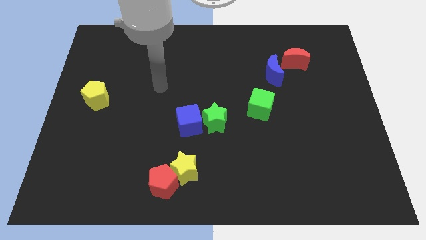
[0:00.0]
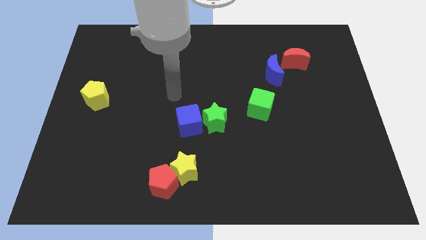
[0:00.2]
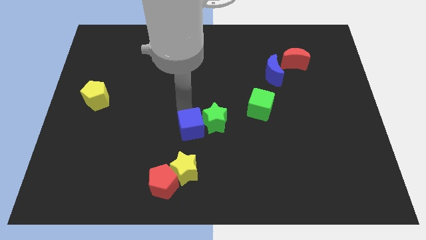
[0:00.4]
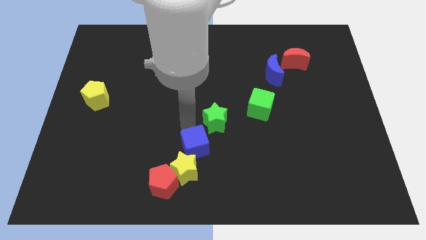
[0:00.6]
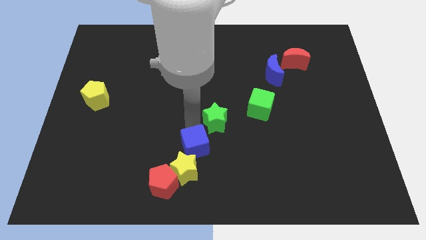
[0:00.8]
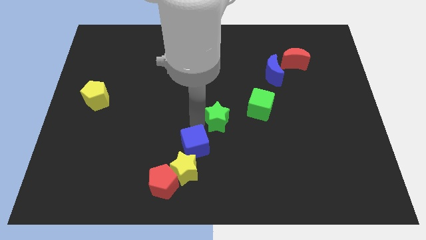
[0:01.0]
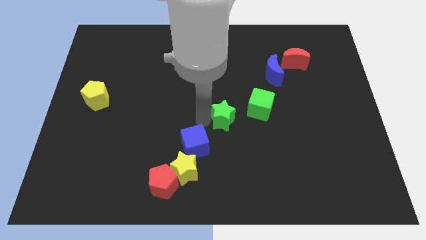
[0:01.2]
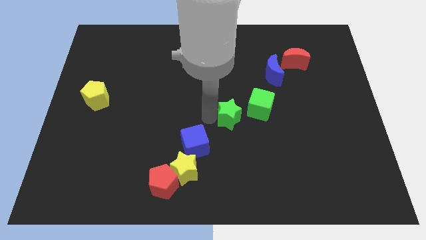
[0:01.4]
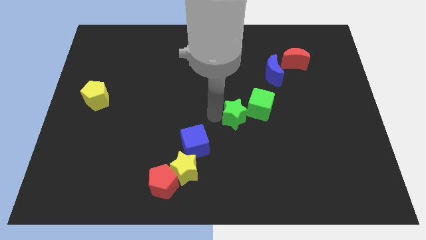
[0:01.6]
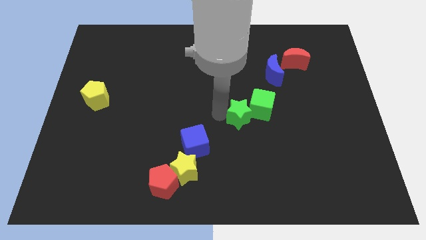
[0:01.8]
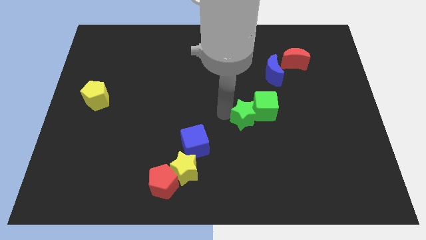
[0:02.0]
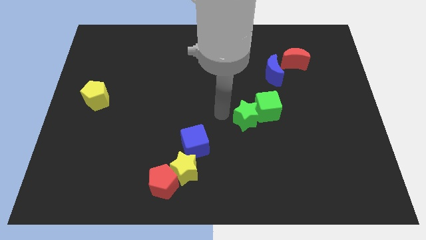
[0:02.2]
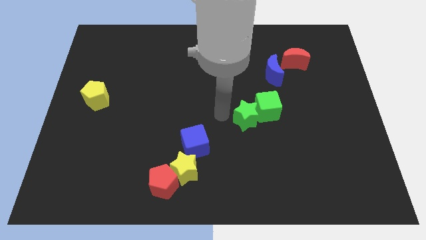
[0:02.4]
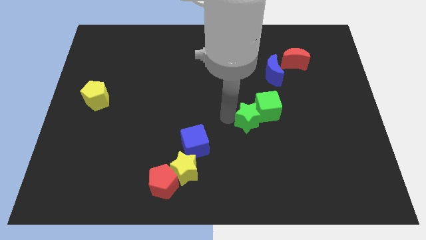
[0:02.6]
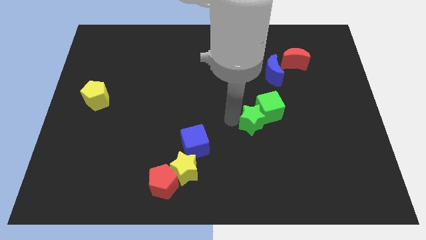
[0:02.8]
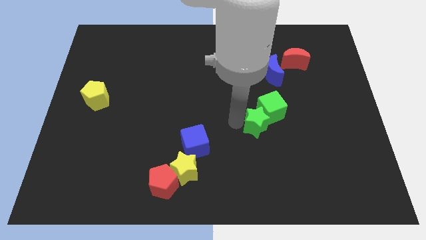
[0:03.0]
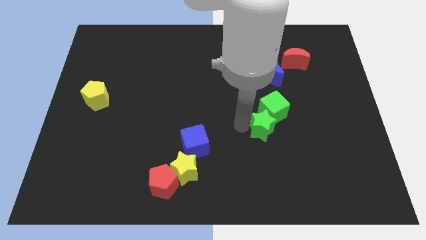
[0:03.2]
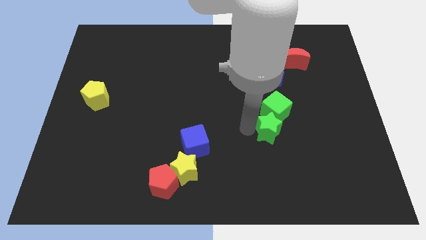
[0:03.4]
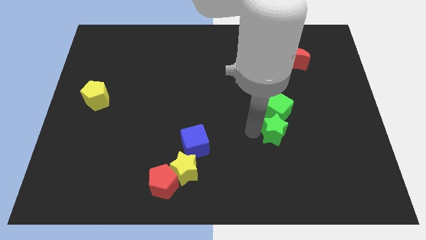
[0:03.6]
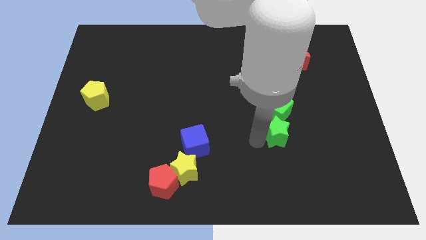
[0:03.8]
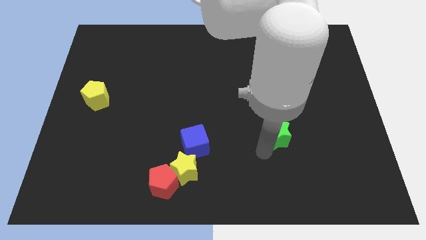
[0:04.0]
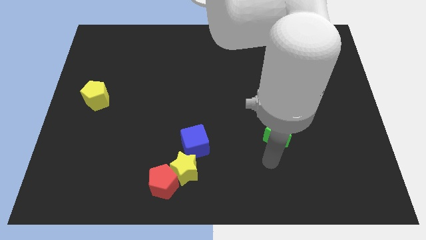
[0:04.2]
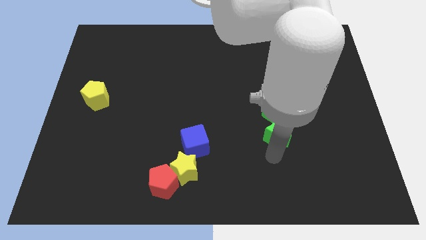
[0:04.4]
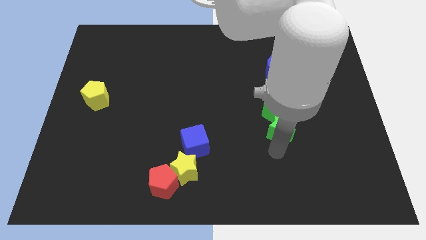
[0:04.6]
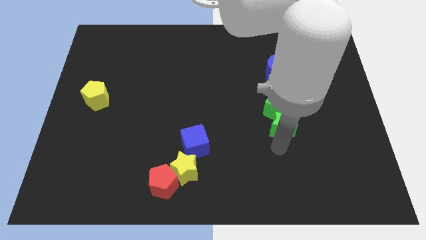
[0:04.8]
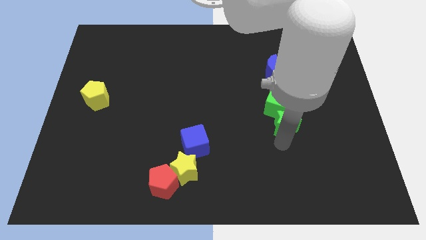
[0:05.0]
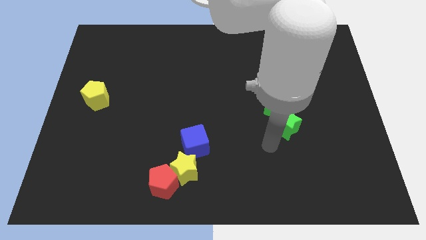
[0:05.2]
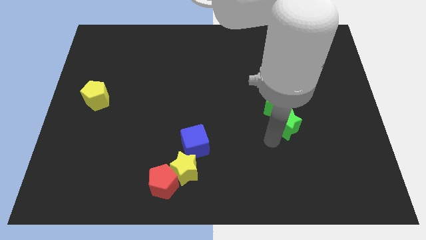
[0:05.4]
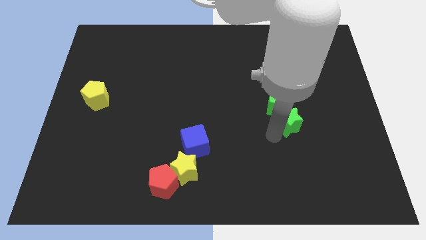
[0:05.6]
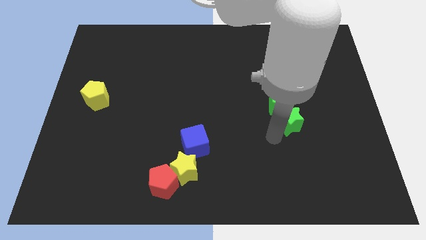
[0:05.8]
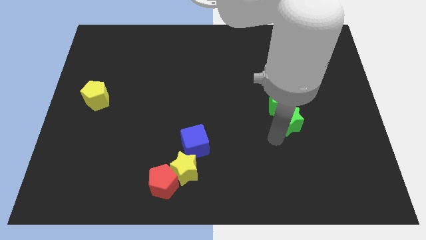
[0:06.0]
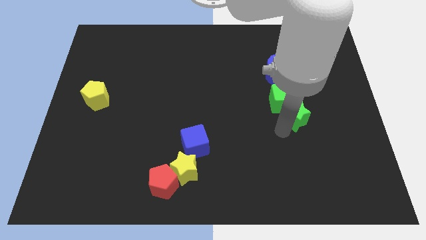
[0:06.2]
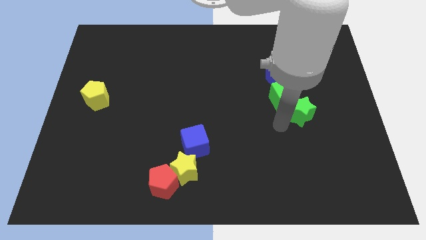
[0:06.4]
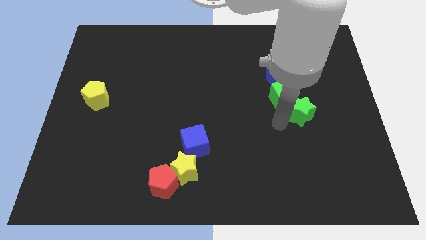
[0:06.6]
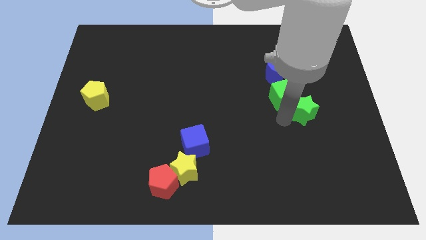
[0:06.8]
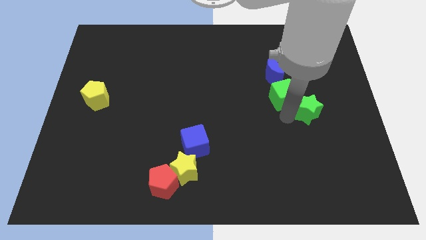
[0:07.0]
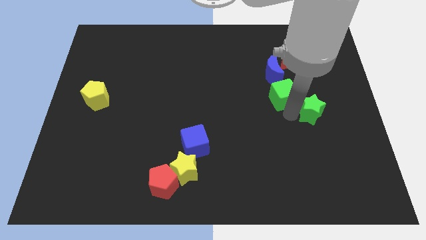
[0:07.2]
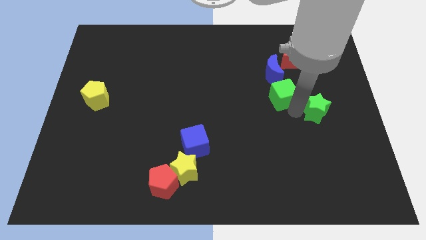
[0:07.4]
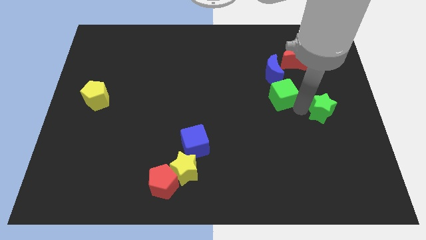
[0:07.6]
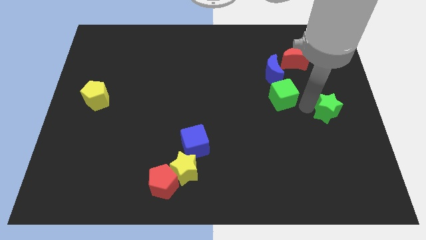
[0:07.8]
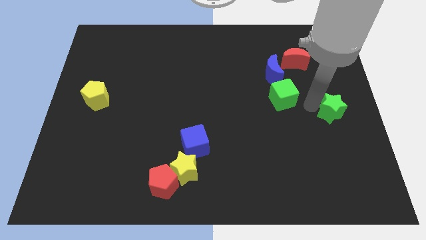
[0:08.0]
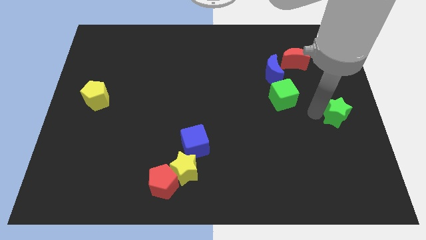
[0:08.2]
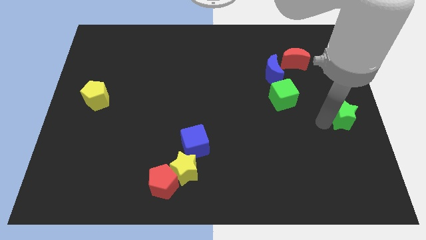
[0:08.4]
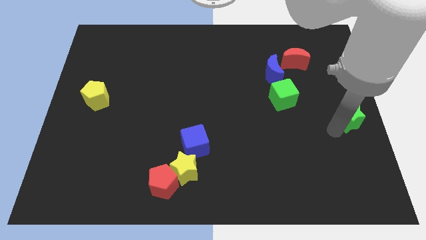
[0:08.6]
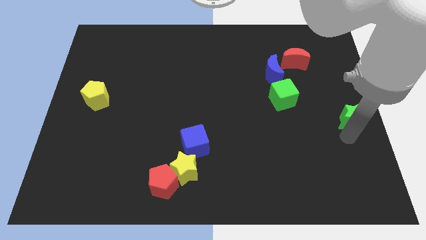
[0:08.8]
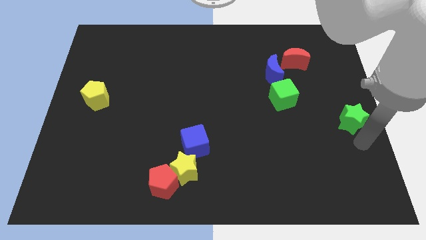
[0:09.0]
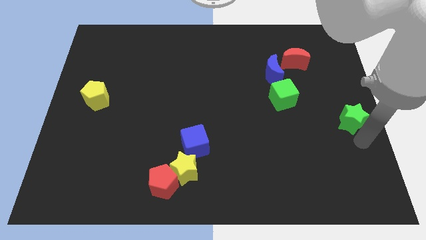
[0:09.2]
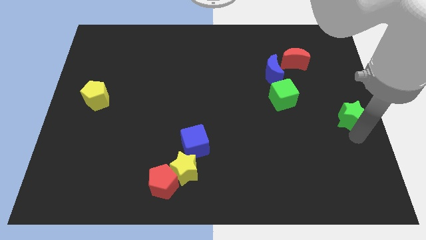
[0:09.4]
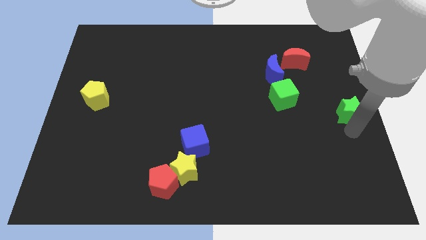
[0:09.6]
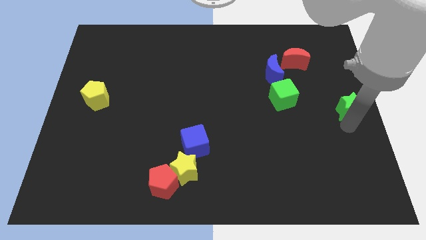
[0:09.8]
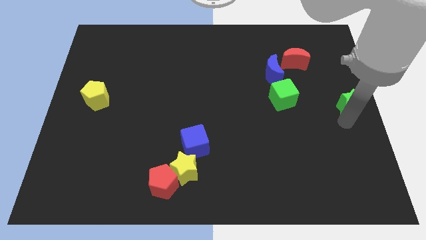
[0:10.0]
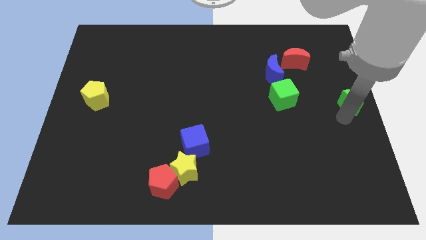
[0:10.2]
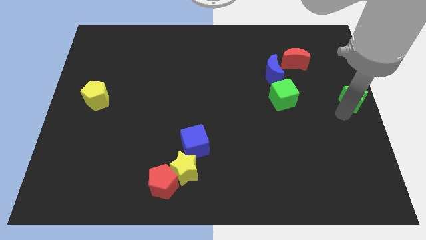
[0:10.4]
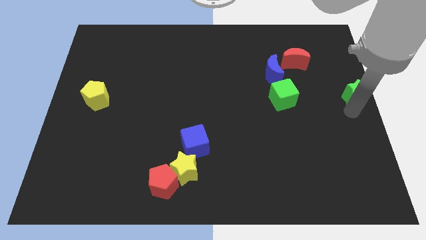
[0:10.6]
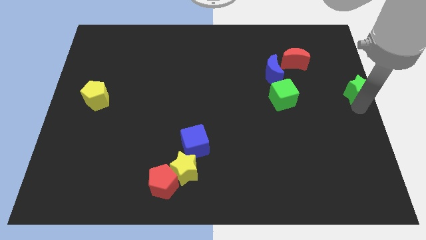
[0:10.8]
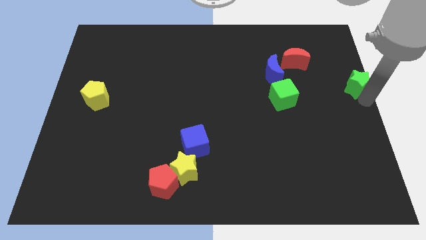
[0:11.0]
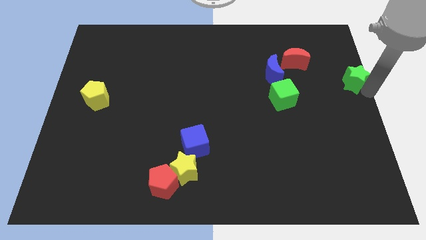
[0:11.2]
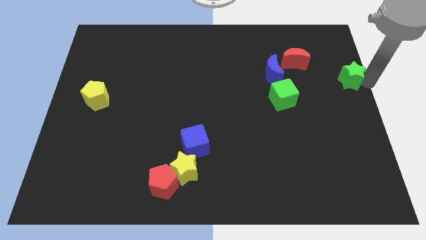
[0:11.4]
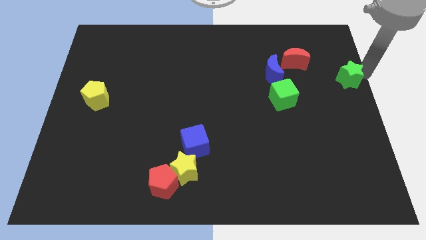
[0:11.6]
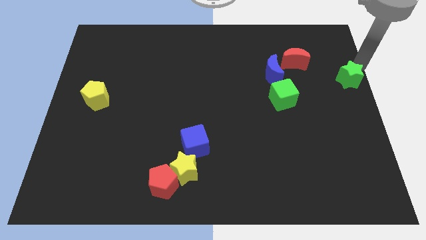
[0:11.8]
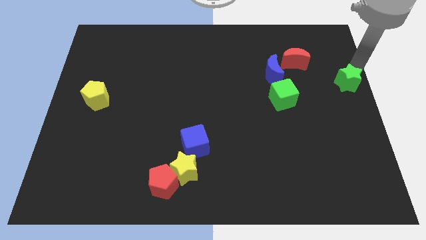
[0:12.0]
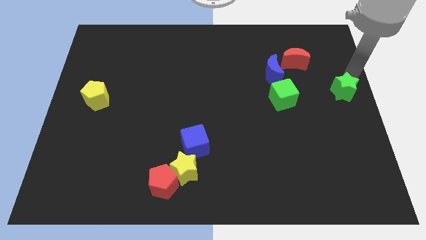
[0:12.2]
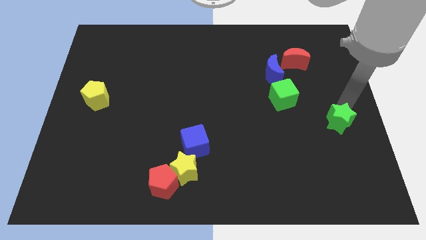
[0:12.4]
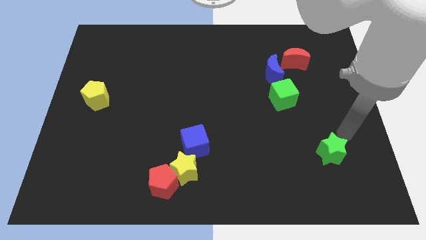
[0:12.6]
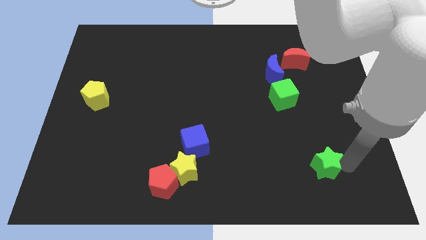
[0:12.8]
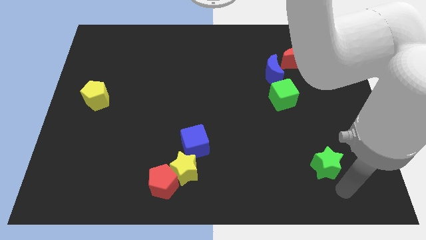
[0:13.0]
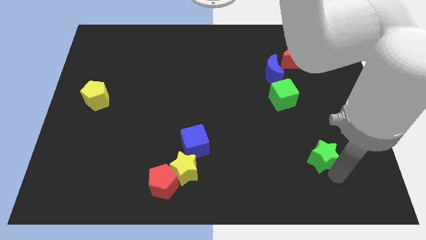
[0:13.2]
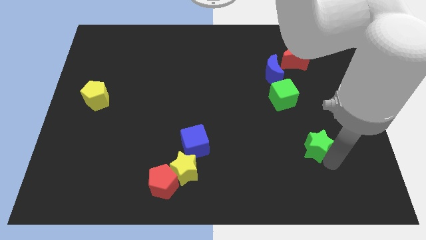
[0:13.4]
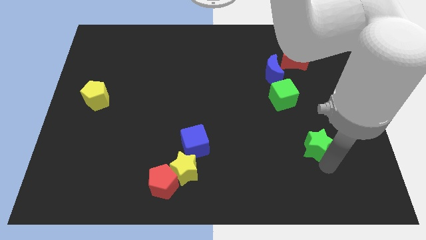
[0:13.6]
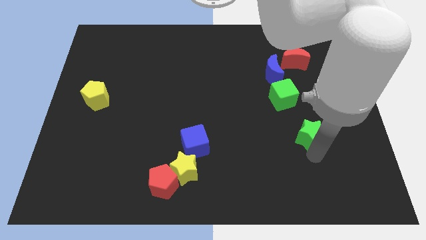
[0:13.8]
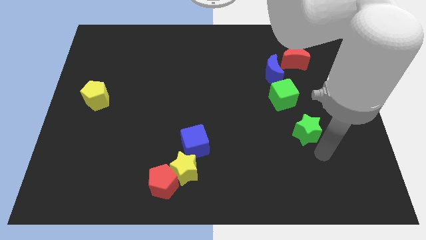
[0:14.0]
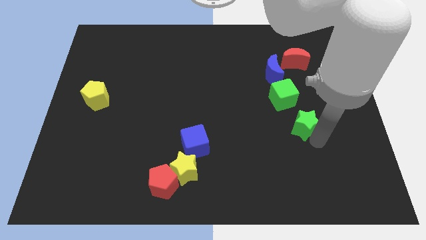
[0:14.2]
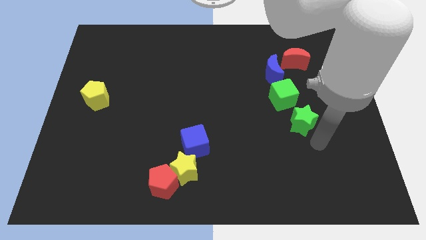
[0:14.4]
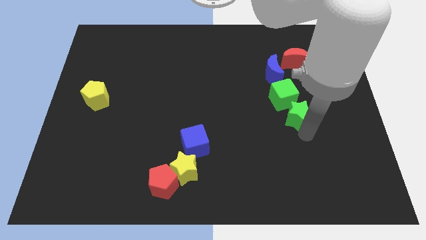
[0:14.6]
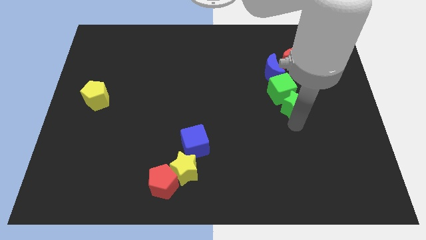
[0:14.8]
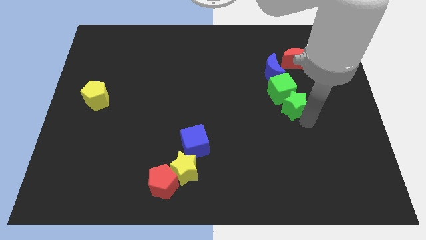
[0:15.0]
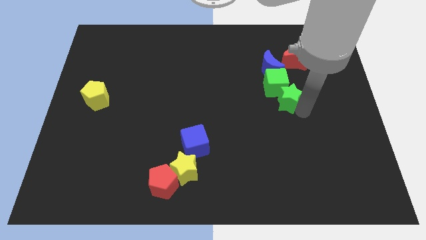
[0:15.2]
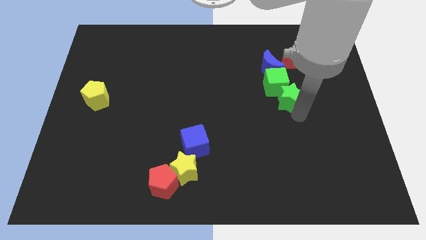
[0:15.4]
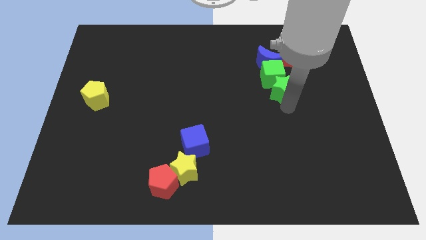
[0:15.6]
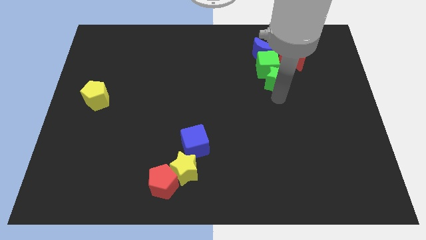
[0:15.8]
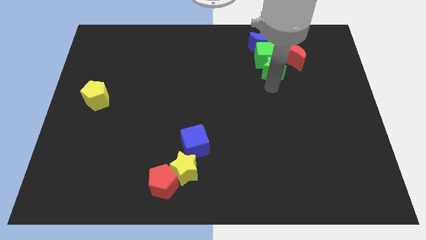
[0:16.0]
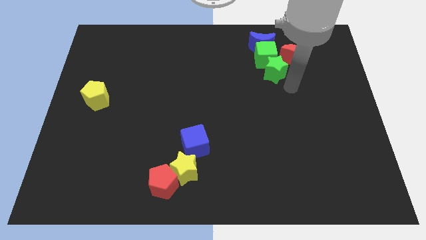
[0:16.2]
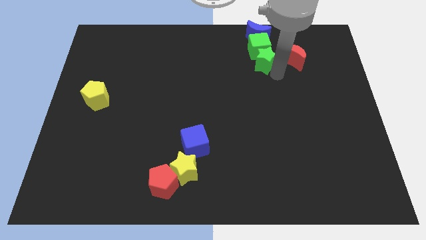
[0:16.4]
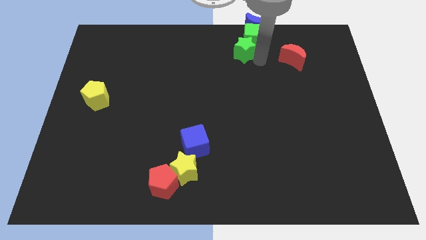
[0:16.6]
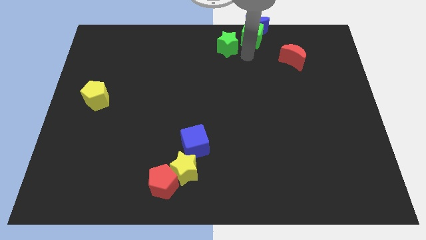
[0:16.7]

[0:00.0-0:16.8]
push the green star to the top
